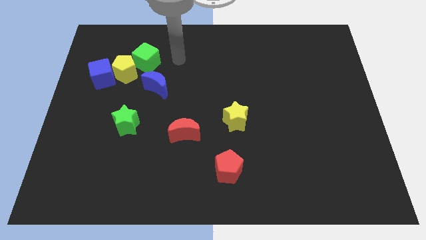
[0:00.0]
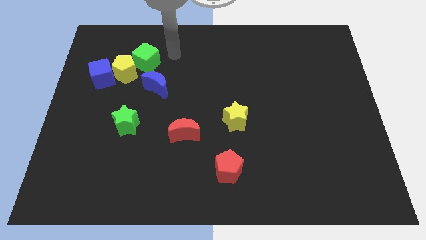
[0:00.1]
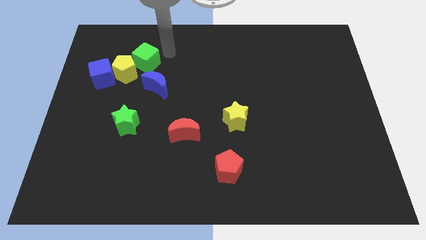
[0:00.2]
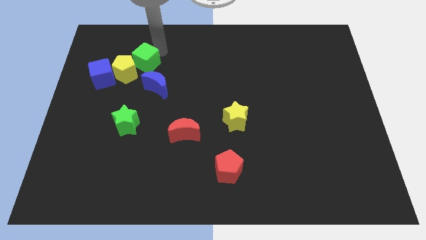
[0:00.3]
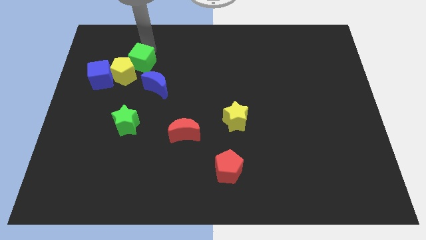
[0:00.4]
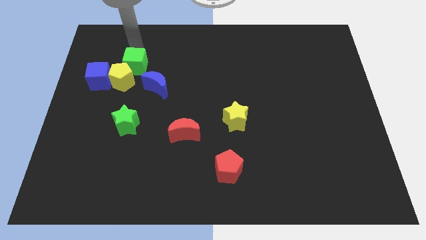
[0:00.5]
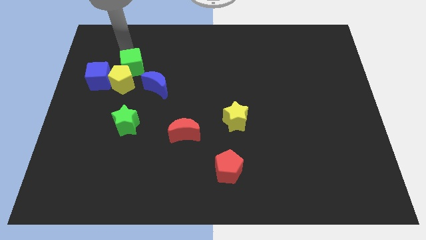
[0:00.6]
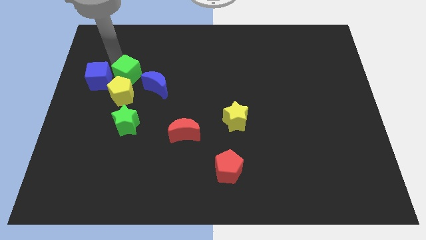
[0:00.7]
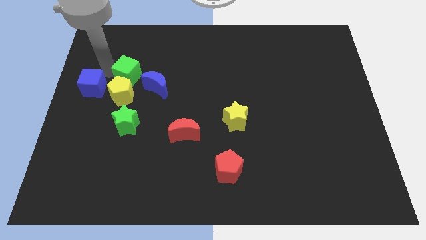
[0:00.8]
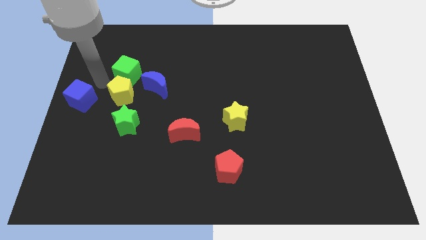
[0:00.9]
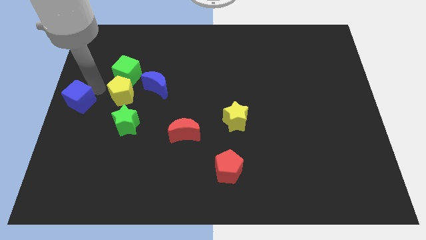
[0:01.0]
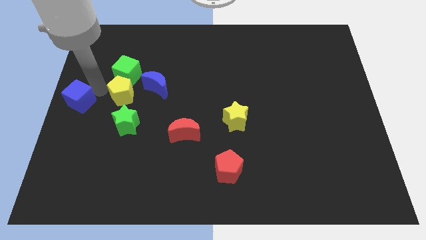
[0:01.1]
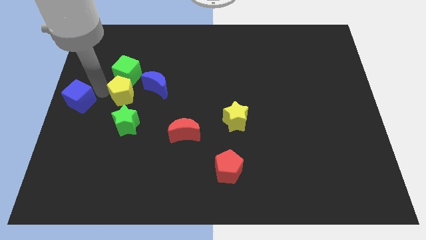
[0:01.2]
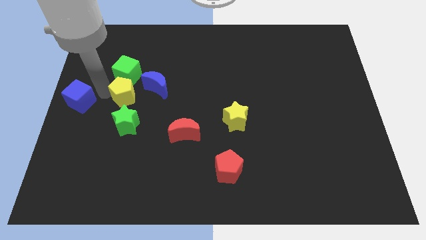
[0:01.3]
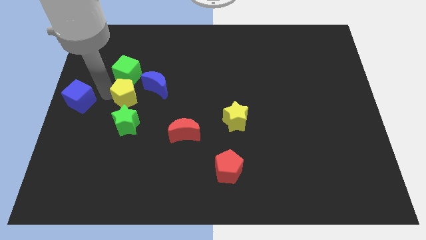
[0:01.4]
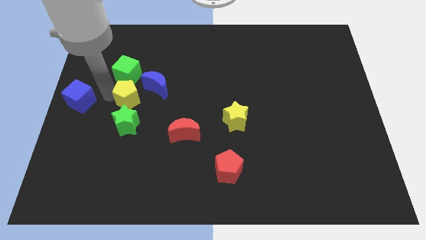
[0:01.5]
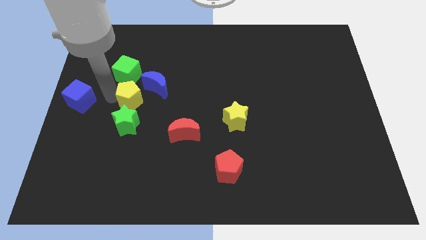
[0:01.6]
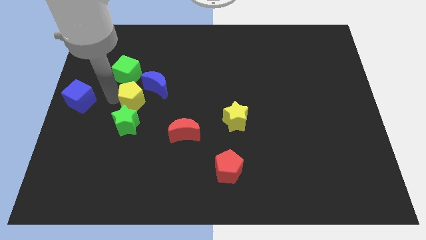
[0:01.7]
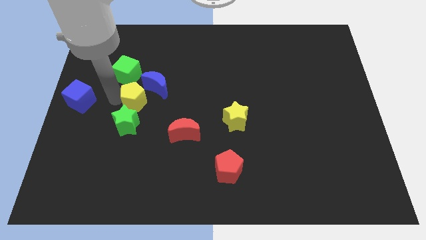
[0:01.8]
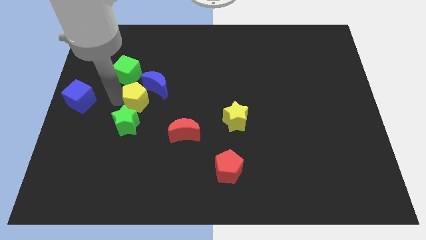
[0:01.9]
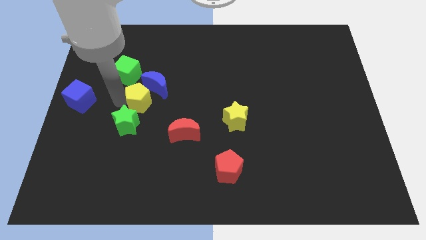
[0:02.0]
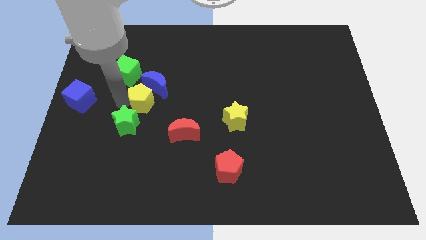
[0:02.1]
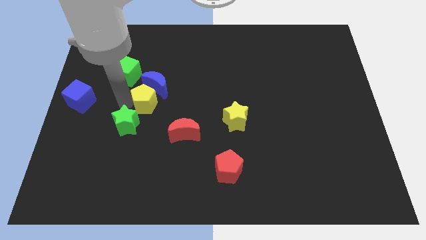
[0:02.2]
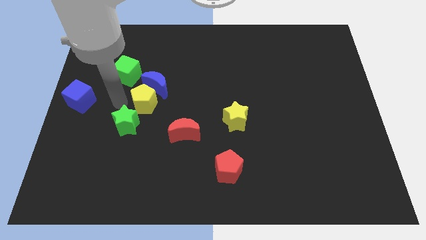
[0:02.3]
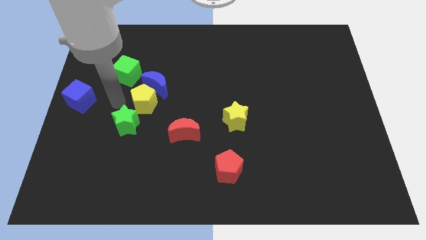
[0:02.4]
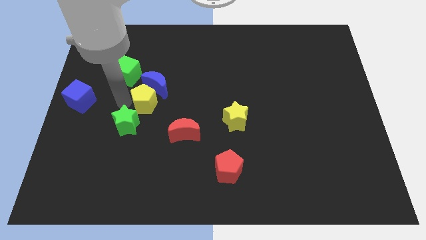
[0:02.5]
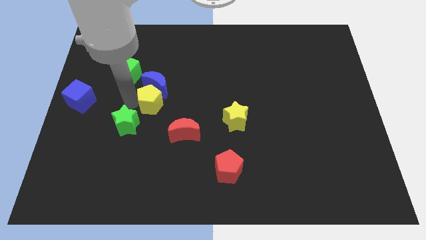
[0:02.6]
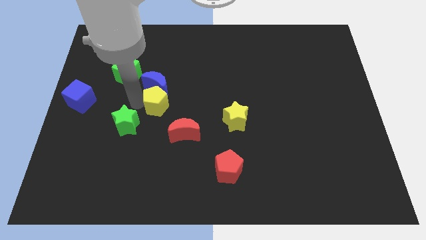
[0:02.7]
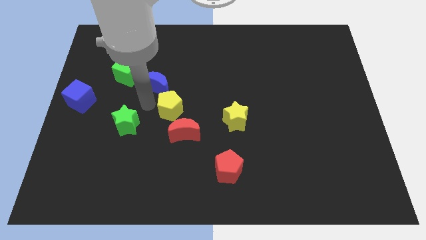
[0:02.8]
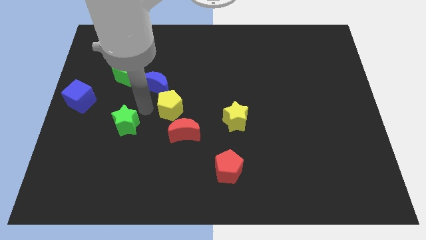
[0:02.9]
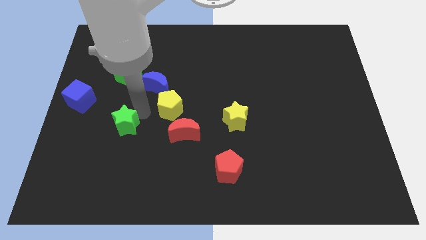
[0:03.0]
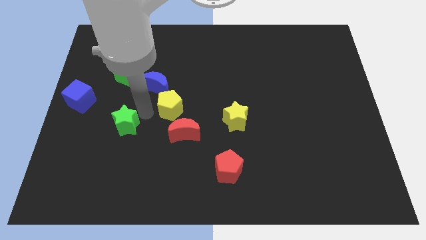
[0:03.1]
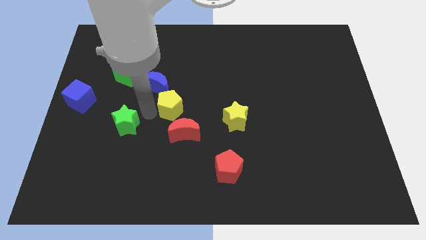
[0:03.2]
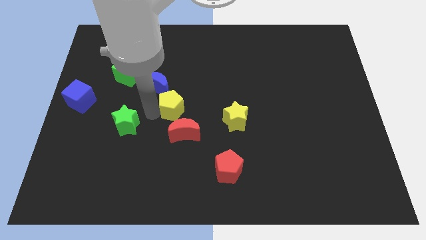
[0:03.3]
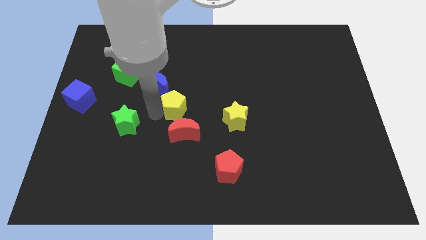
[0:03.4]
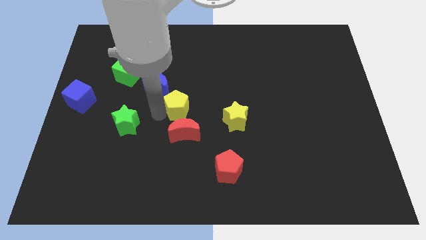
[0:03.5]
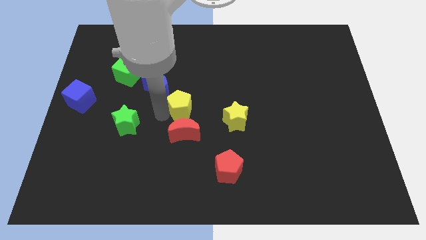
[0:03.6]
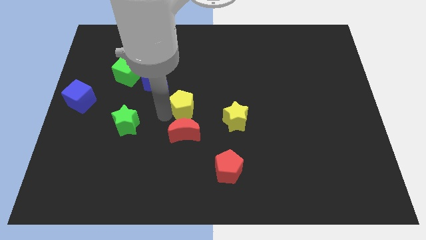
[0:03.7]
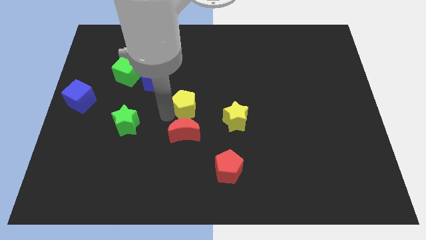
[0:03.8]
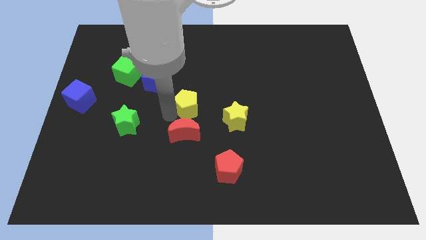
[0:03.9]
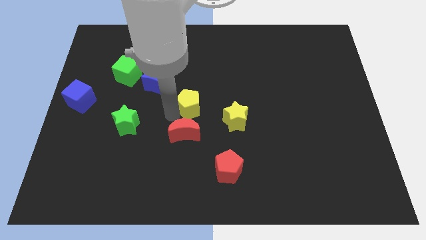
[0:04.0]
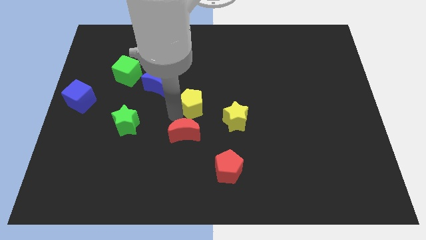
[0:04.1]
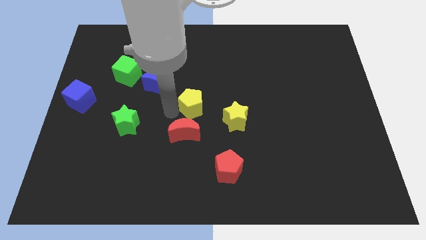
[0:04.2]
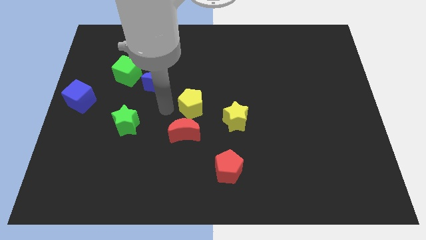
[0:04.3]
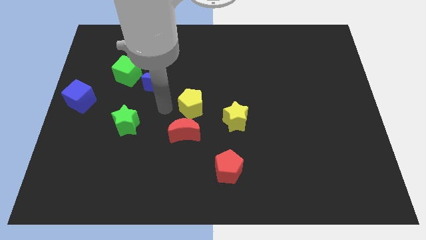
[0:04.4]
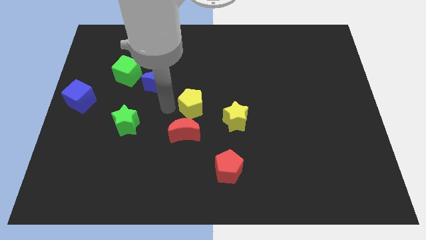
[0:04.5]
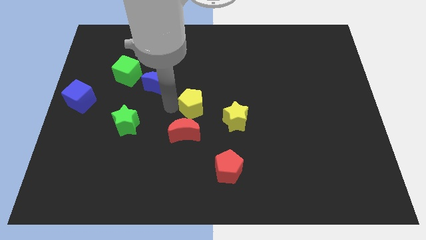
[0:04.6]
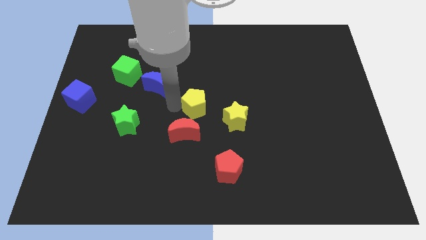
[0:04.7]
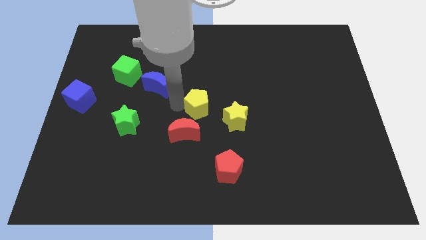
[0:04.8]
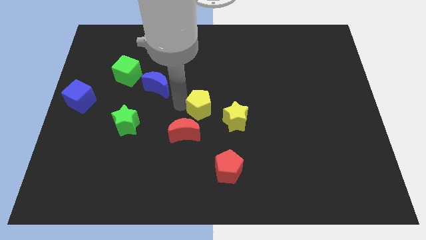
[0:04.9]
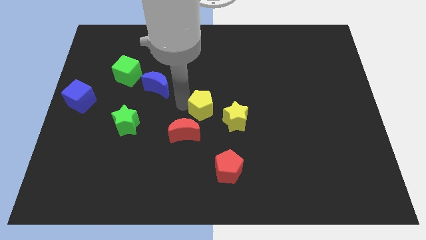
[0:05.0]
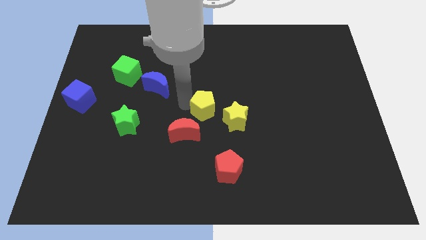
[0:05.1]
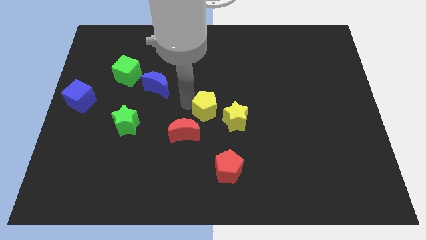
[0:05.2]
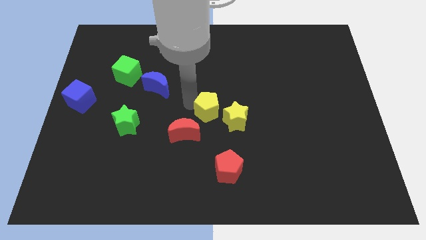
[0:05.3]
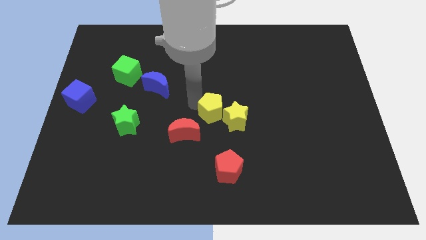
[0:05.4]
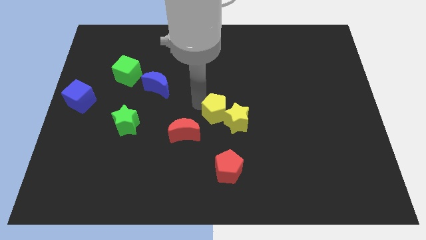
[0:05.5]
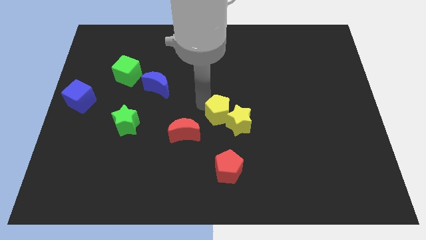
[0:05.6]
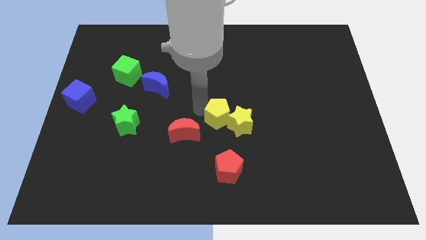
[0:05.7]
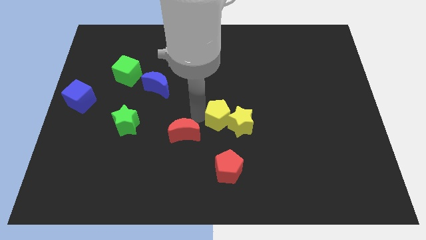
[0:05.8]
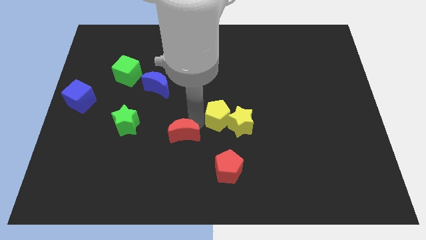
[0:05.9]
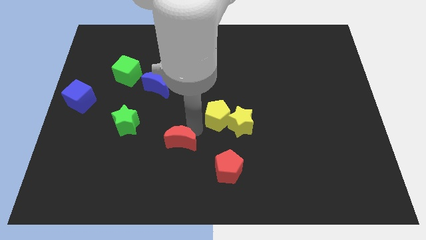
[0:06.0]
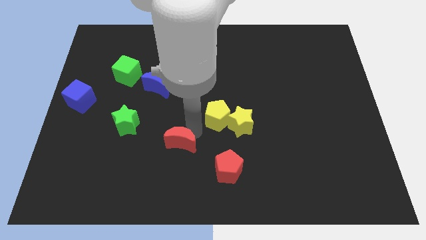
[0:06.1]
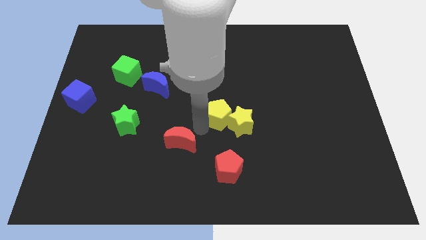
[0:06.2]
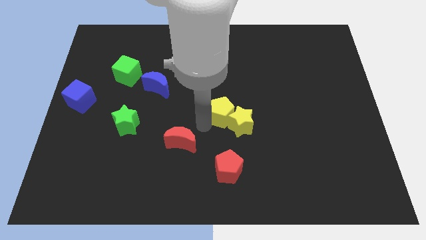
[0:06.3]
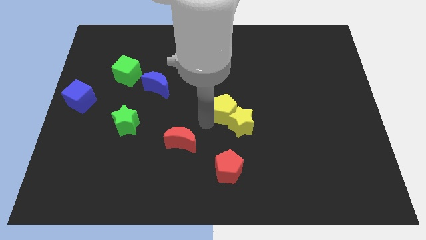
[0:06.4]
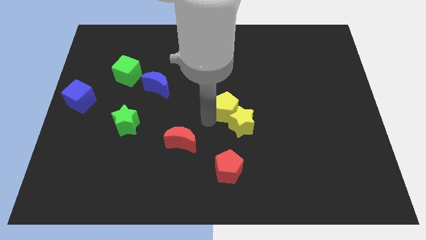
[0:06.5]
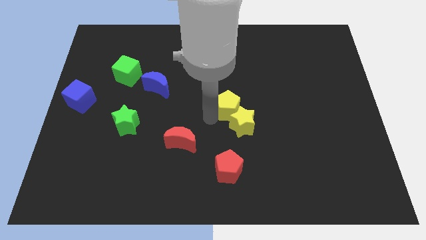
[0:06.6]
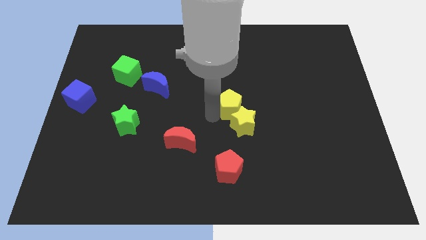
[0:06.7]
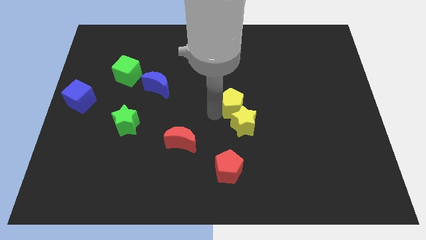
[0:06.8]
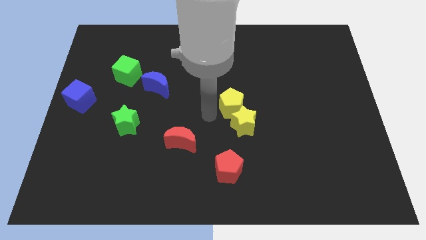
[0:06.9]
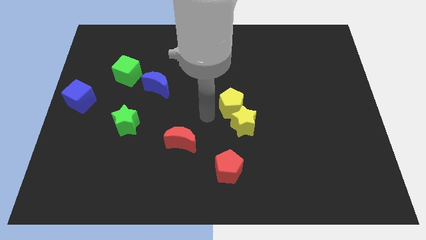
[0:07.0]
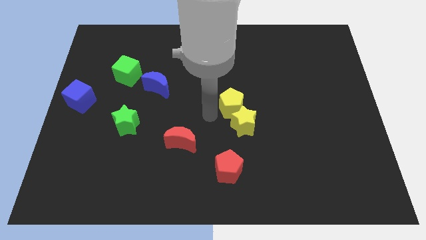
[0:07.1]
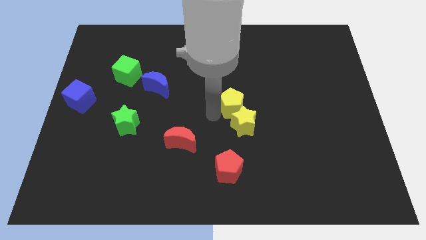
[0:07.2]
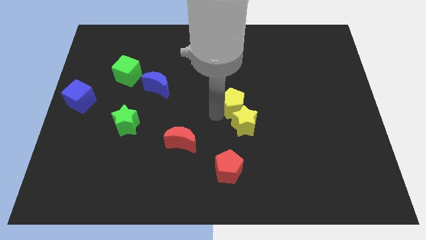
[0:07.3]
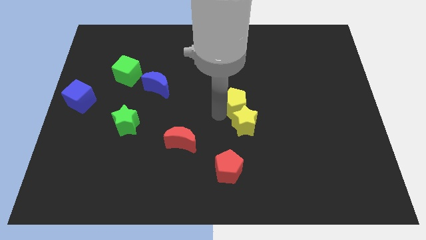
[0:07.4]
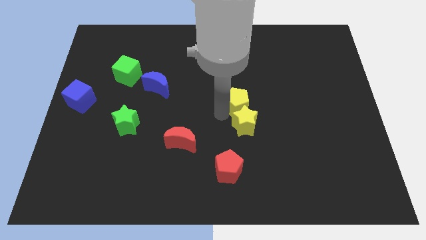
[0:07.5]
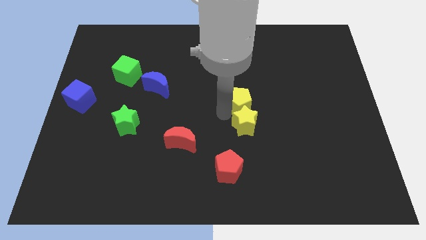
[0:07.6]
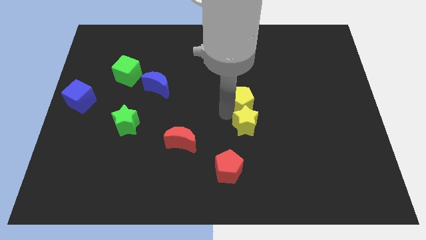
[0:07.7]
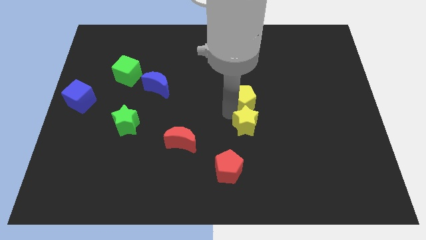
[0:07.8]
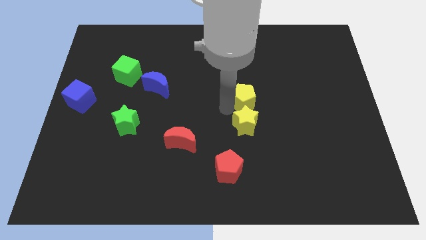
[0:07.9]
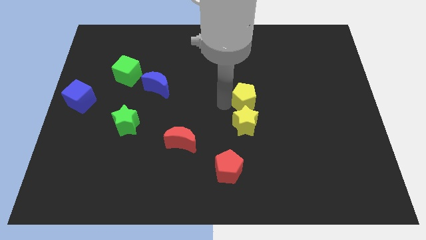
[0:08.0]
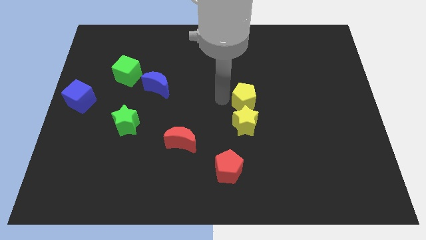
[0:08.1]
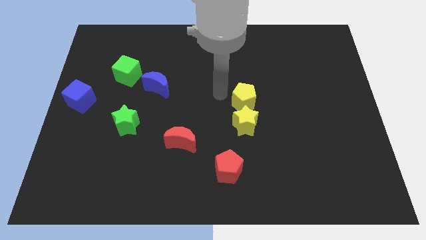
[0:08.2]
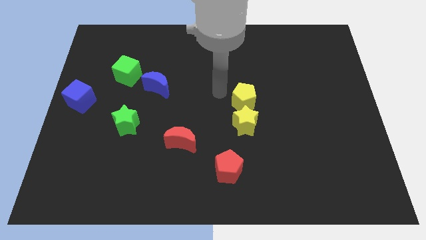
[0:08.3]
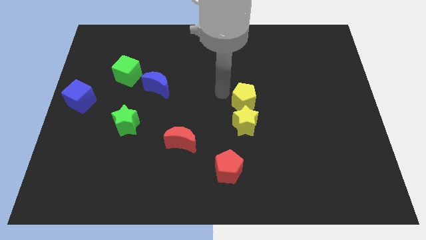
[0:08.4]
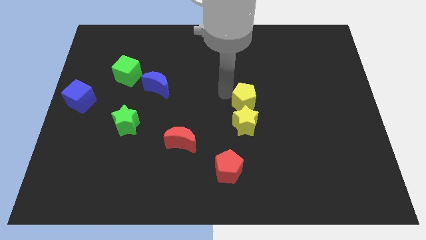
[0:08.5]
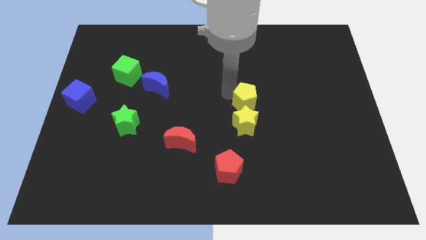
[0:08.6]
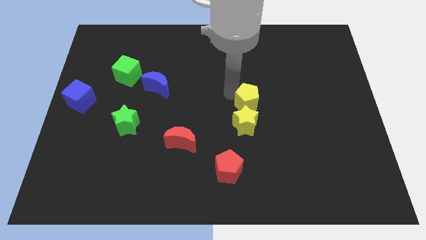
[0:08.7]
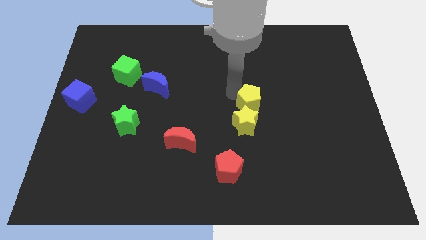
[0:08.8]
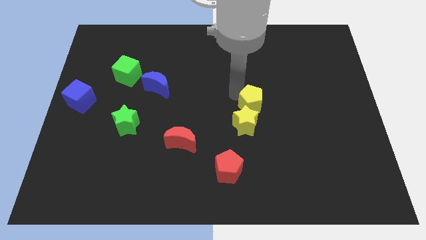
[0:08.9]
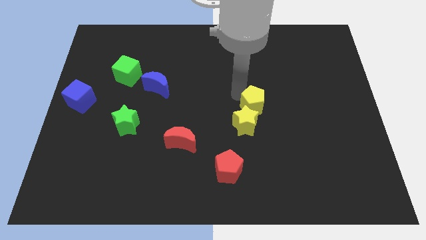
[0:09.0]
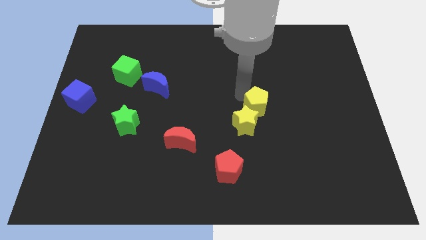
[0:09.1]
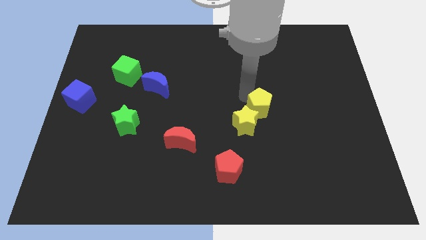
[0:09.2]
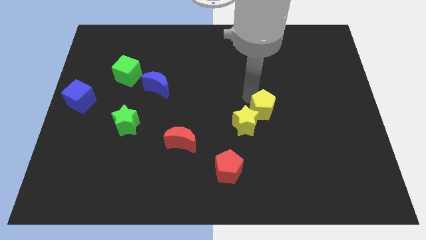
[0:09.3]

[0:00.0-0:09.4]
slide the yellow pentagon right of the yellow star
